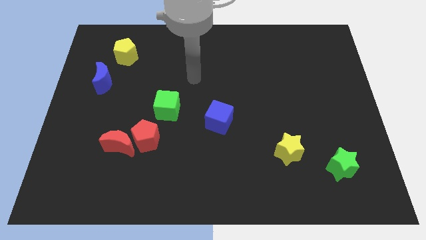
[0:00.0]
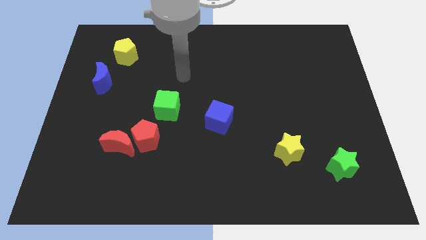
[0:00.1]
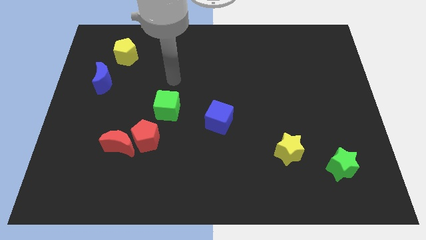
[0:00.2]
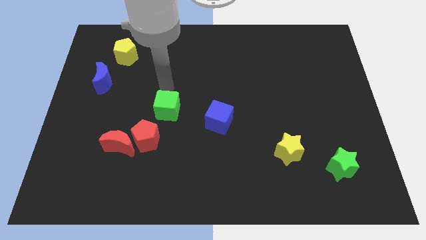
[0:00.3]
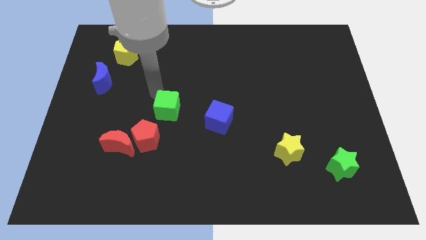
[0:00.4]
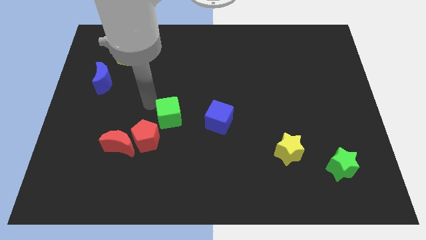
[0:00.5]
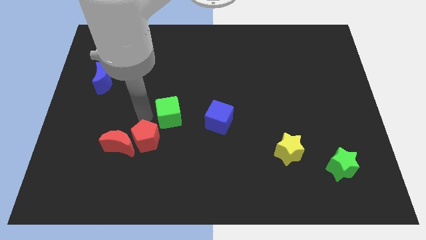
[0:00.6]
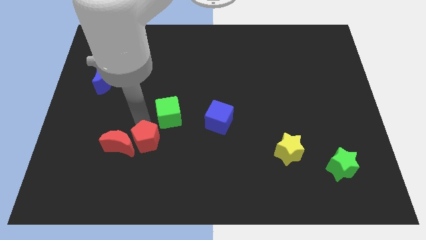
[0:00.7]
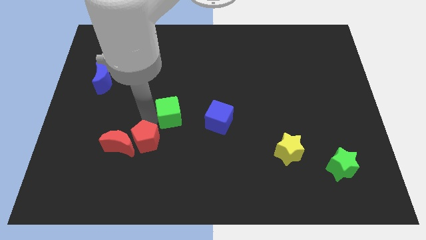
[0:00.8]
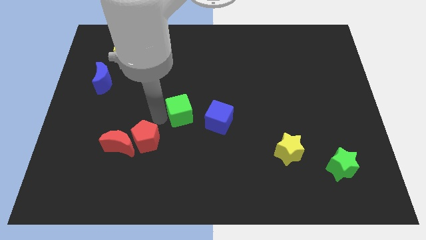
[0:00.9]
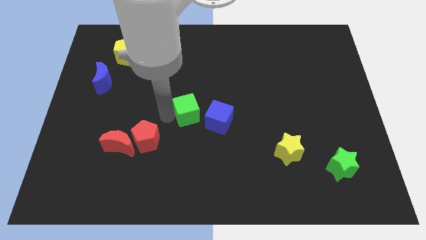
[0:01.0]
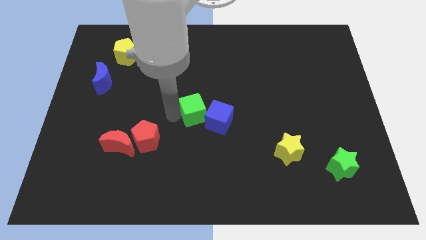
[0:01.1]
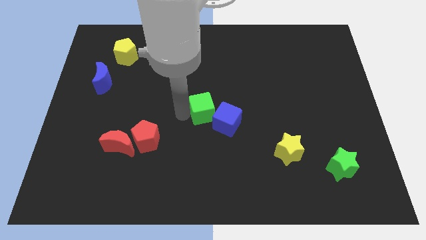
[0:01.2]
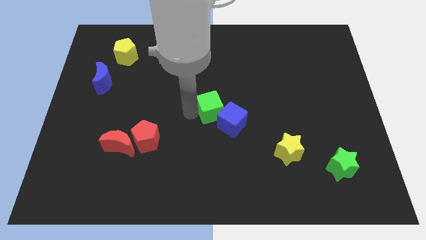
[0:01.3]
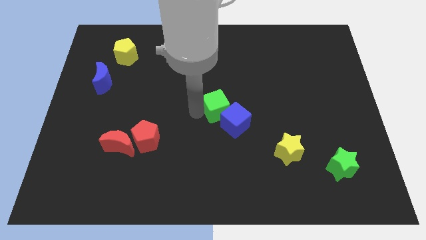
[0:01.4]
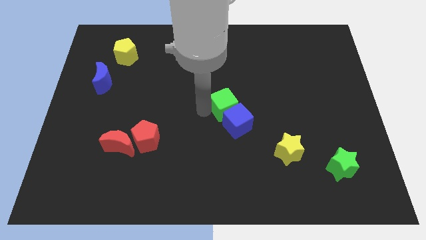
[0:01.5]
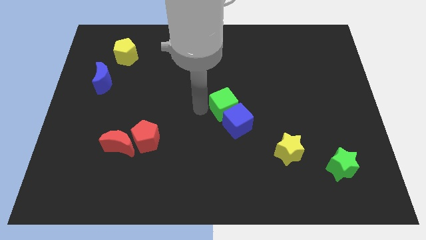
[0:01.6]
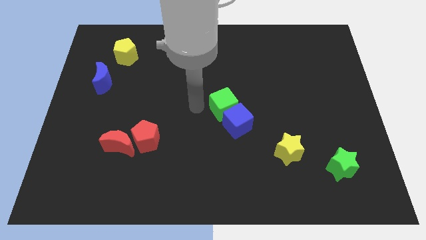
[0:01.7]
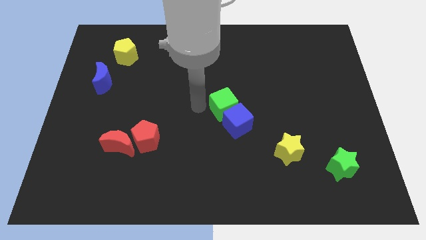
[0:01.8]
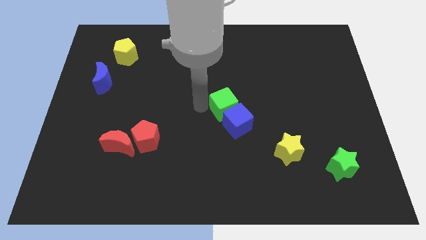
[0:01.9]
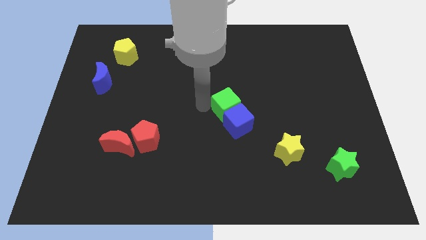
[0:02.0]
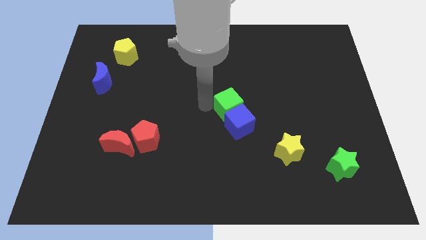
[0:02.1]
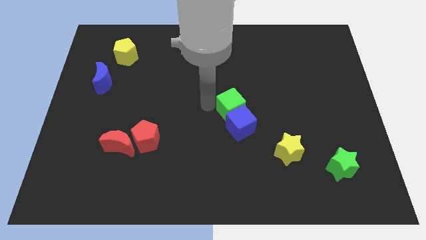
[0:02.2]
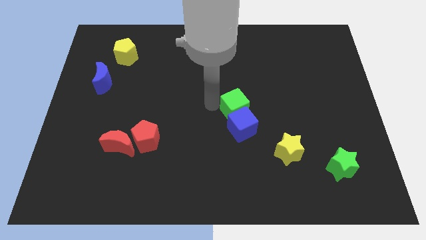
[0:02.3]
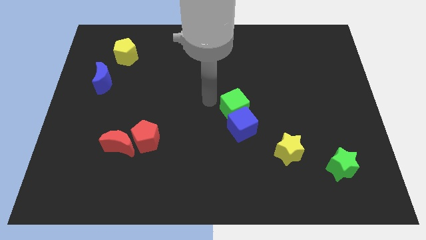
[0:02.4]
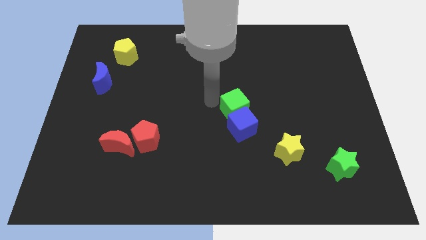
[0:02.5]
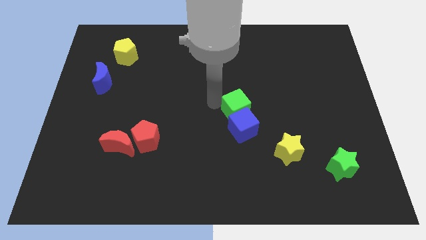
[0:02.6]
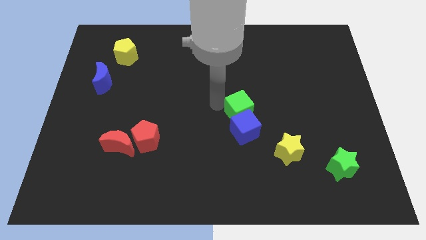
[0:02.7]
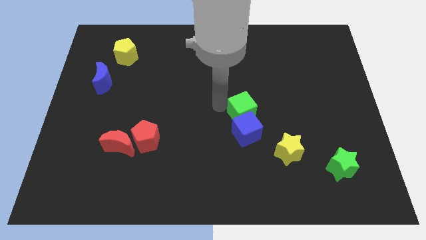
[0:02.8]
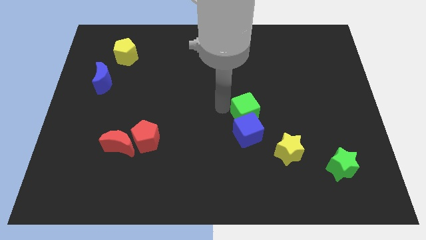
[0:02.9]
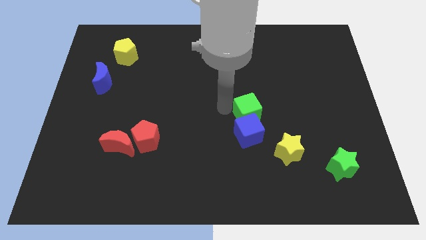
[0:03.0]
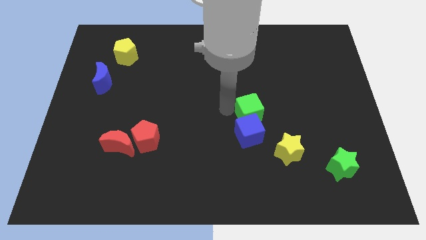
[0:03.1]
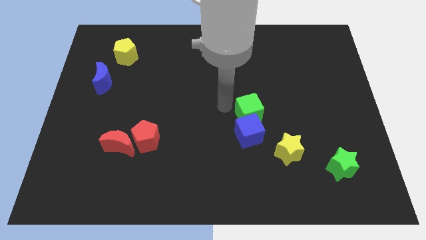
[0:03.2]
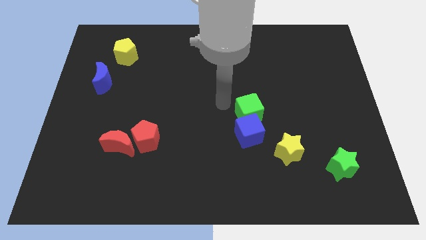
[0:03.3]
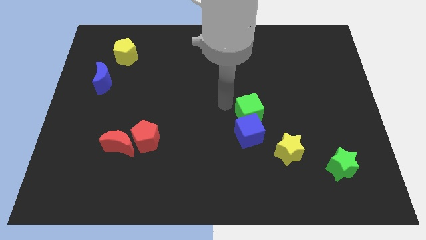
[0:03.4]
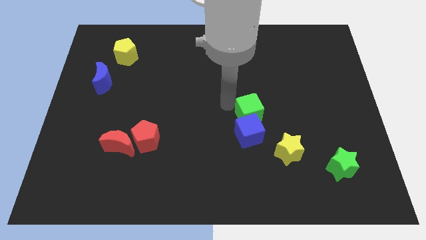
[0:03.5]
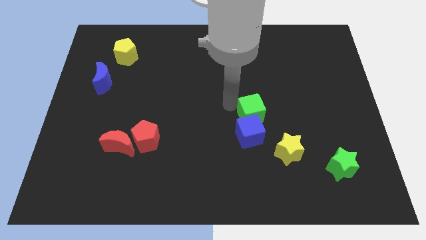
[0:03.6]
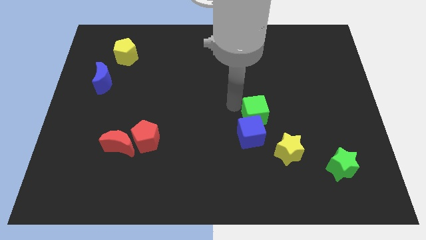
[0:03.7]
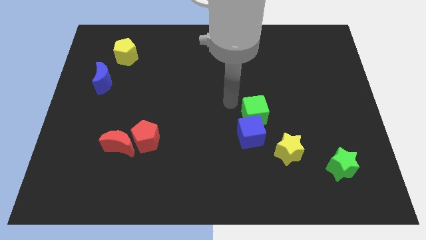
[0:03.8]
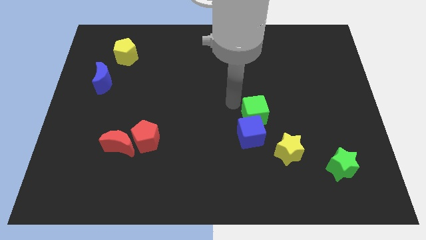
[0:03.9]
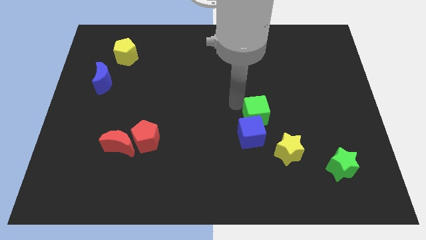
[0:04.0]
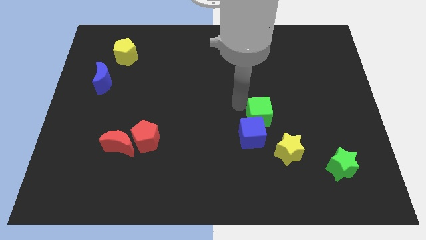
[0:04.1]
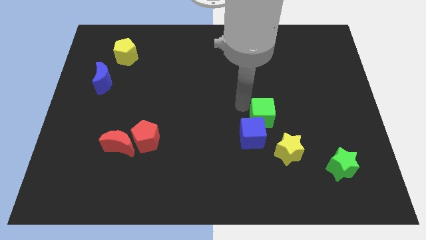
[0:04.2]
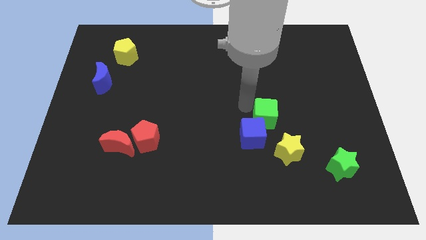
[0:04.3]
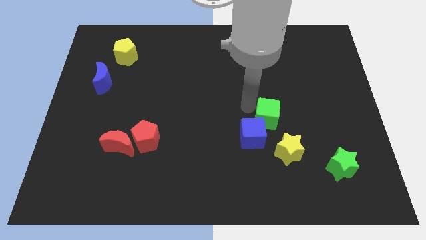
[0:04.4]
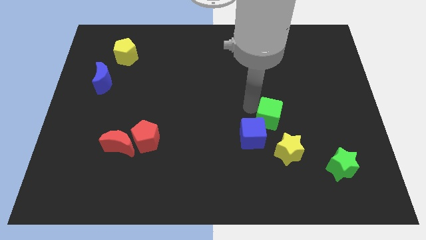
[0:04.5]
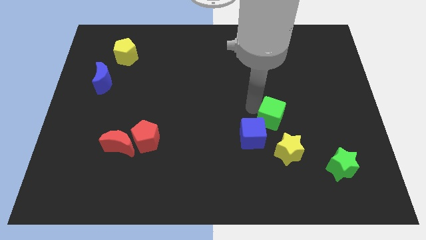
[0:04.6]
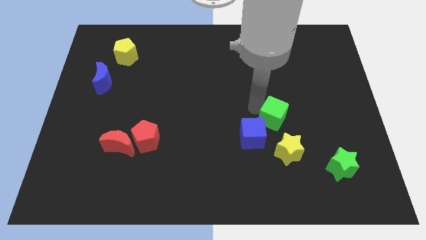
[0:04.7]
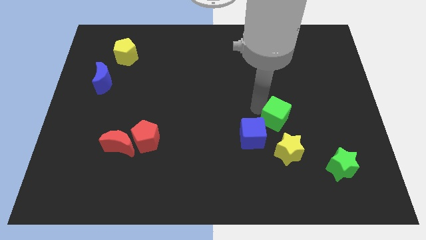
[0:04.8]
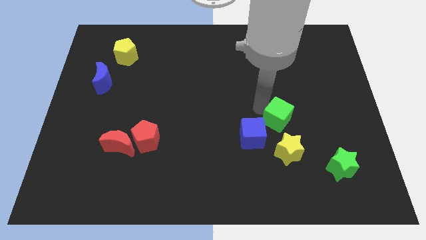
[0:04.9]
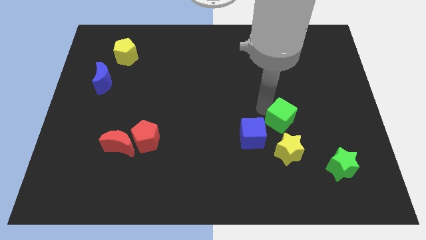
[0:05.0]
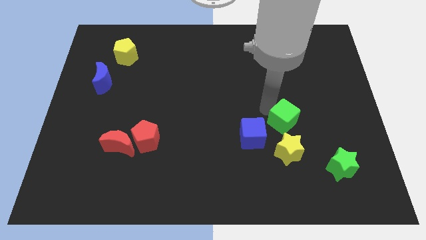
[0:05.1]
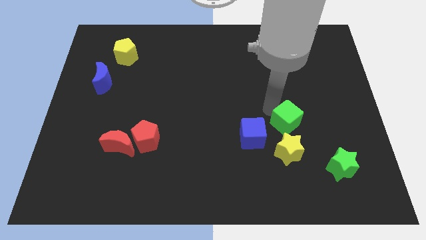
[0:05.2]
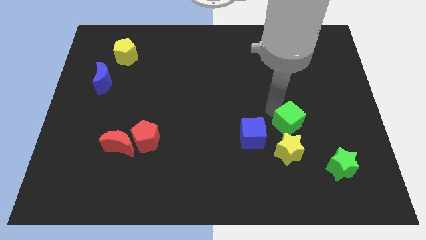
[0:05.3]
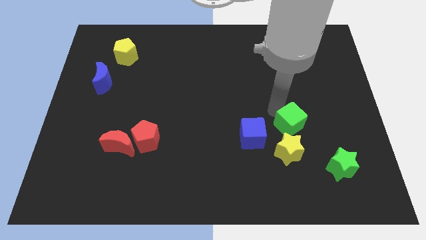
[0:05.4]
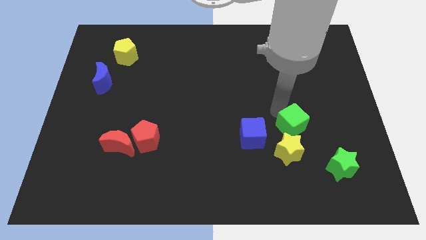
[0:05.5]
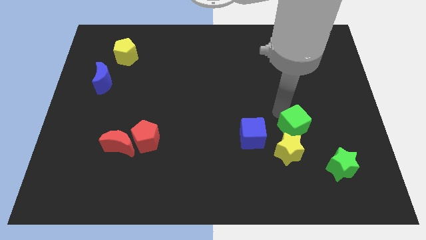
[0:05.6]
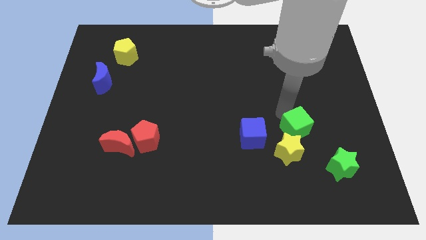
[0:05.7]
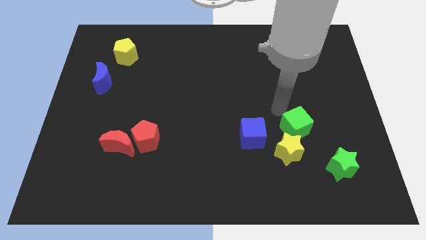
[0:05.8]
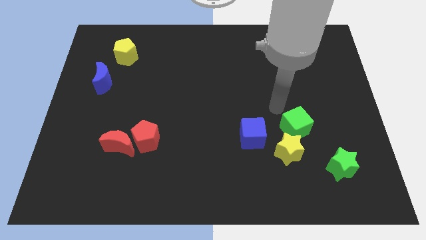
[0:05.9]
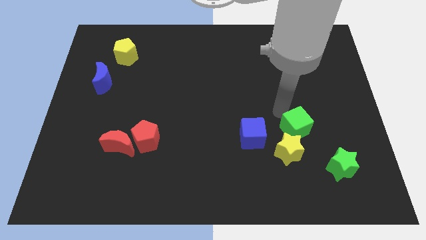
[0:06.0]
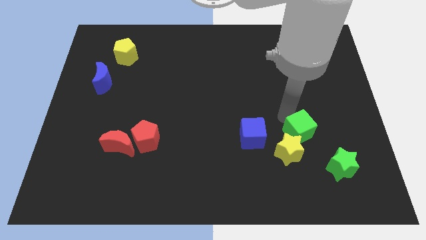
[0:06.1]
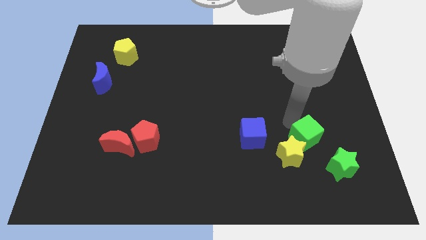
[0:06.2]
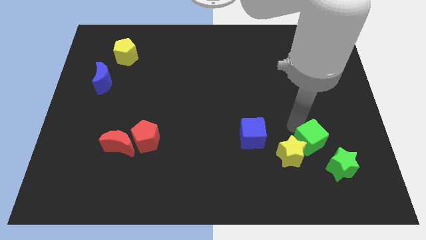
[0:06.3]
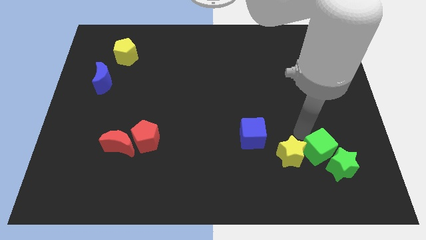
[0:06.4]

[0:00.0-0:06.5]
slide the green cube next to the green star

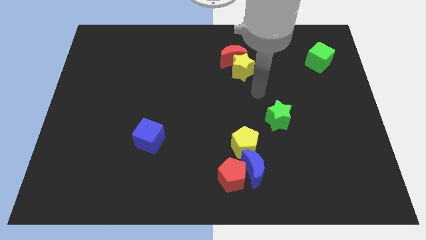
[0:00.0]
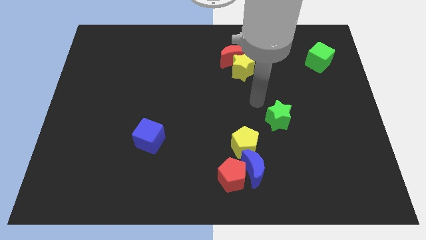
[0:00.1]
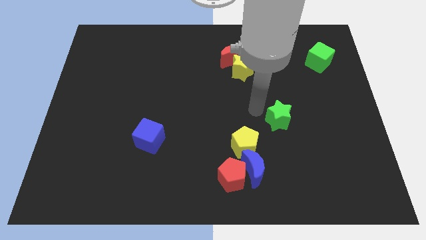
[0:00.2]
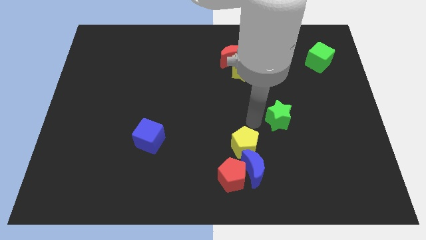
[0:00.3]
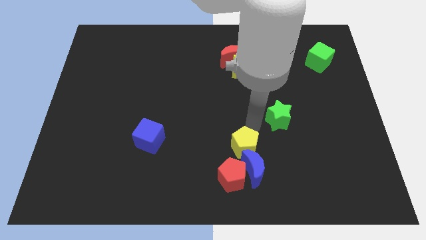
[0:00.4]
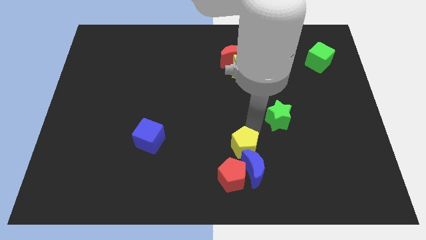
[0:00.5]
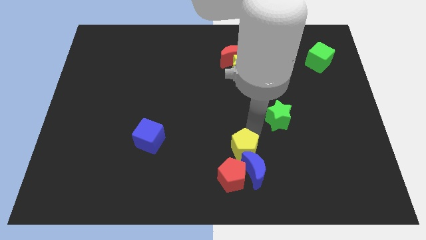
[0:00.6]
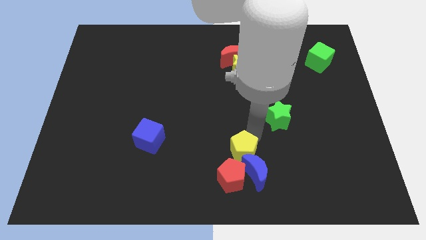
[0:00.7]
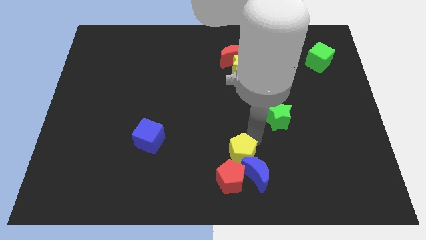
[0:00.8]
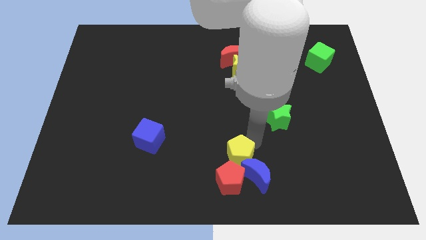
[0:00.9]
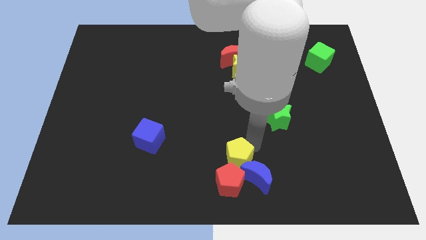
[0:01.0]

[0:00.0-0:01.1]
push the yellow pentagon towards the red pentagon
